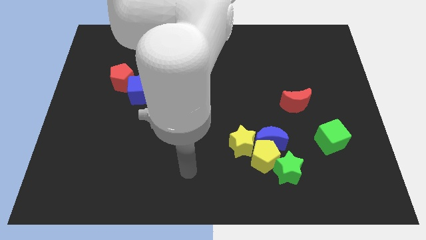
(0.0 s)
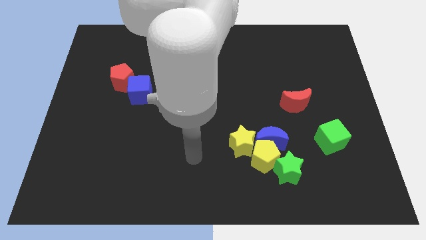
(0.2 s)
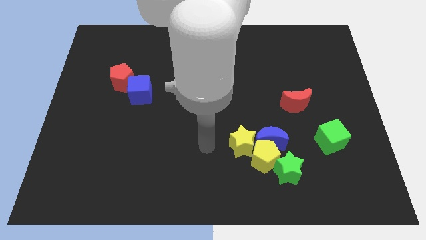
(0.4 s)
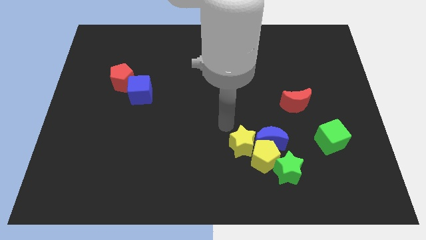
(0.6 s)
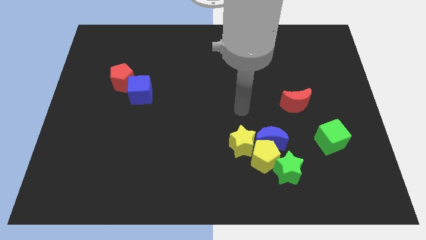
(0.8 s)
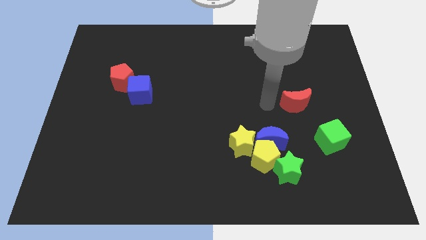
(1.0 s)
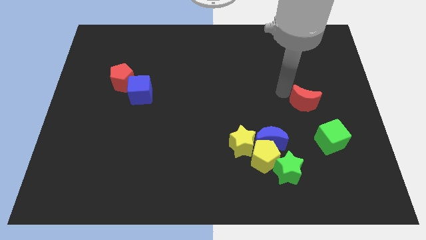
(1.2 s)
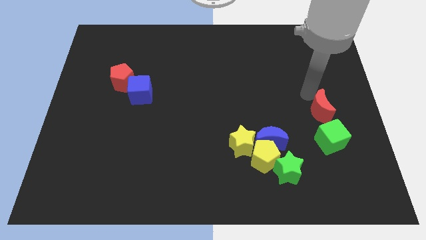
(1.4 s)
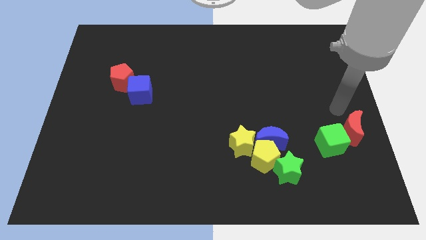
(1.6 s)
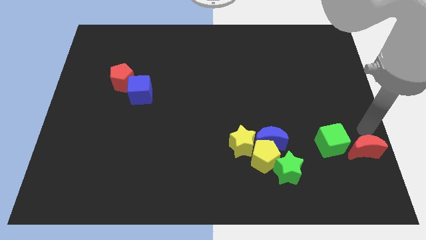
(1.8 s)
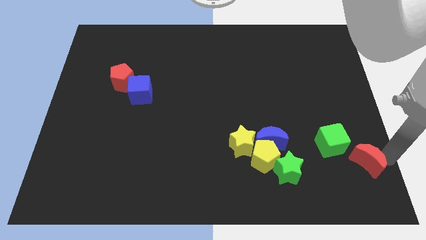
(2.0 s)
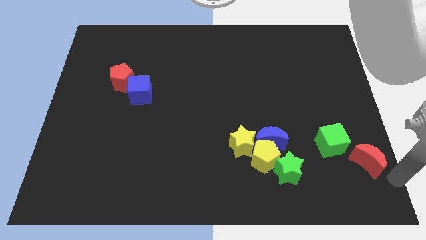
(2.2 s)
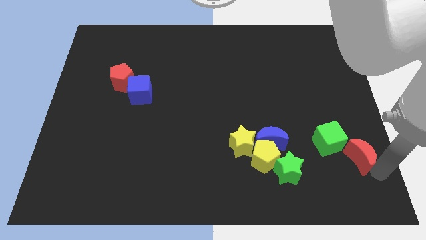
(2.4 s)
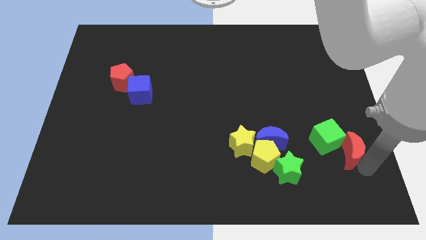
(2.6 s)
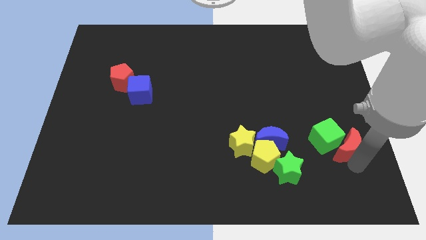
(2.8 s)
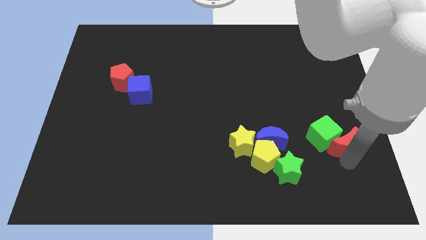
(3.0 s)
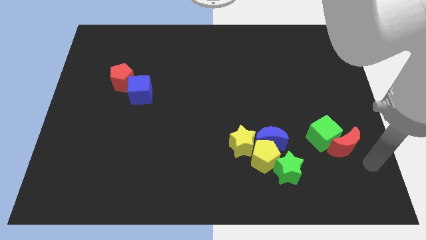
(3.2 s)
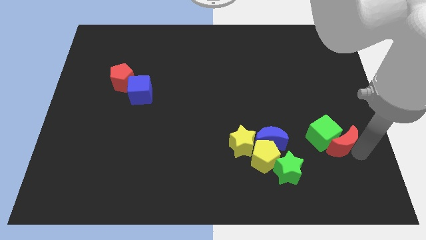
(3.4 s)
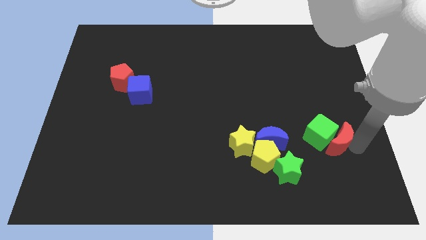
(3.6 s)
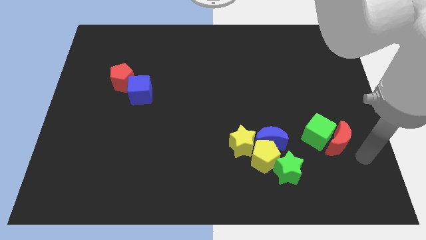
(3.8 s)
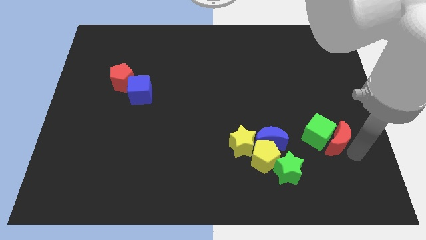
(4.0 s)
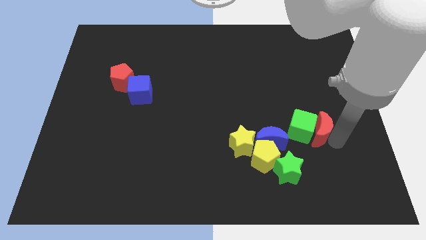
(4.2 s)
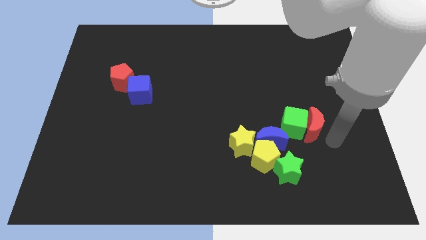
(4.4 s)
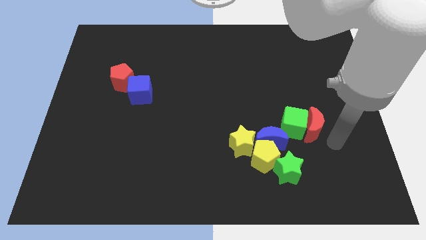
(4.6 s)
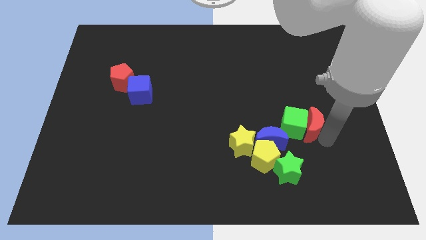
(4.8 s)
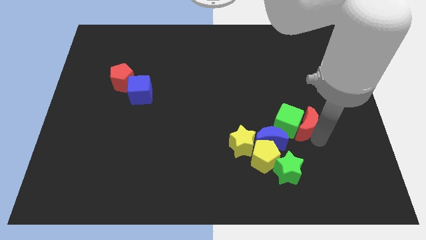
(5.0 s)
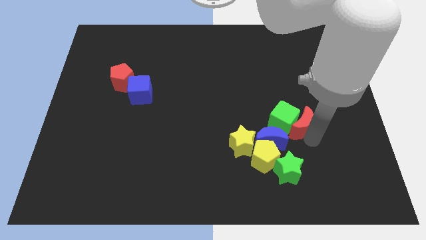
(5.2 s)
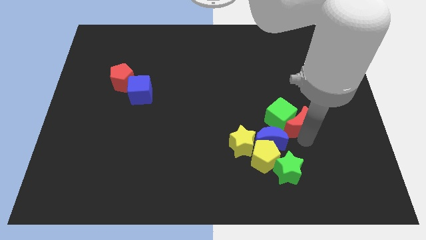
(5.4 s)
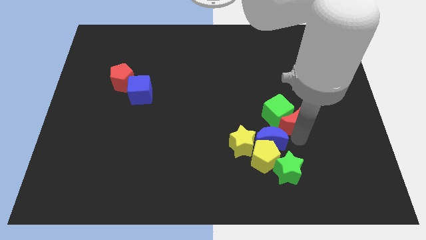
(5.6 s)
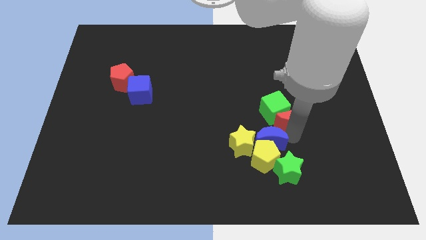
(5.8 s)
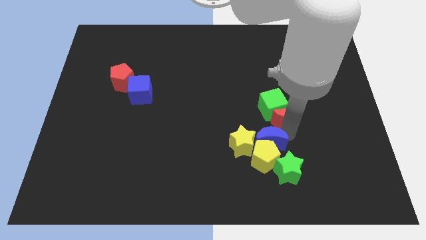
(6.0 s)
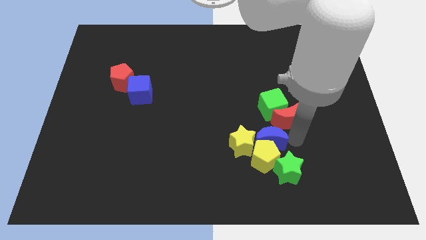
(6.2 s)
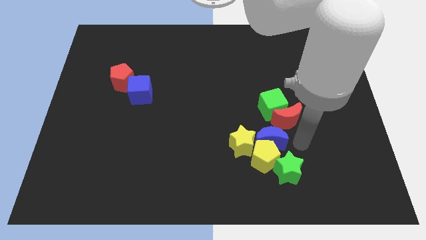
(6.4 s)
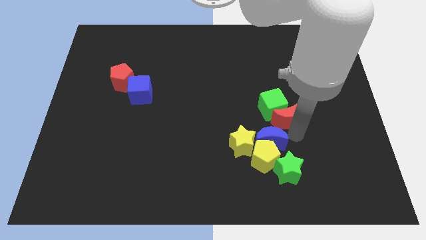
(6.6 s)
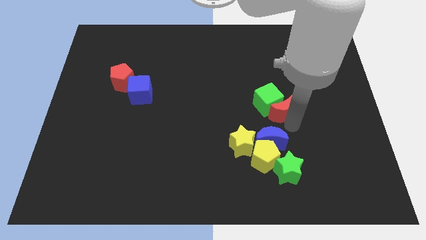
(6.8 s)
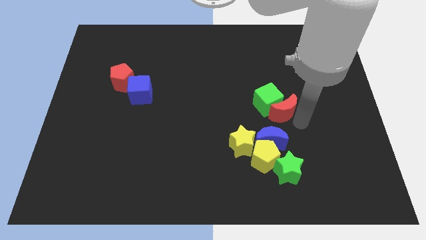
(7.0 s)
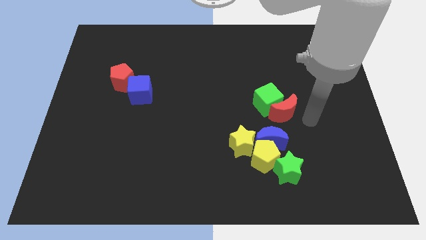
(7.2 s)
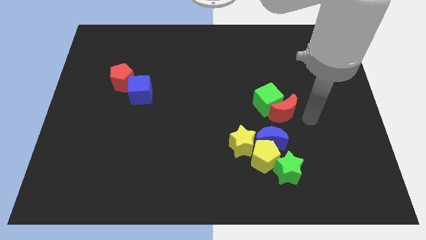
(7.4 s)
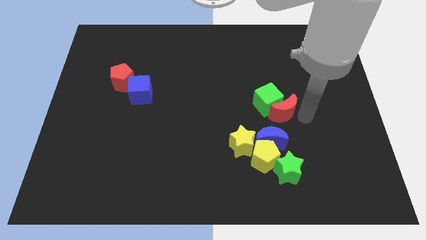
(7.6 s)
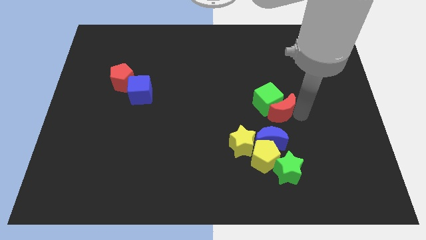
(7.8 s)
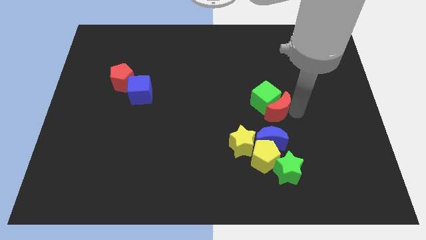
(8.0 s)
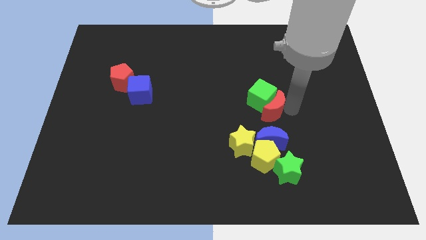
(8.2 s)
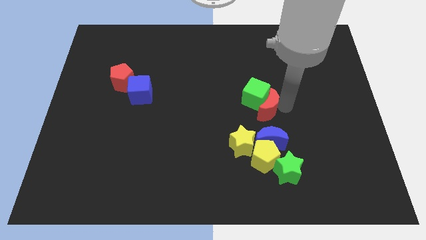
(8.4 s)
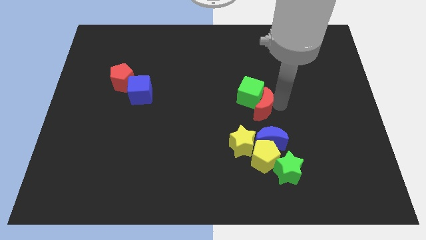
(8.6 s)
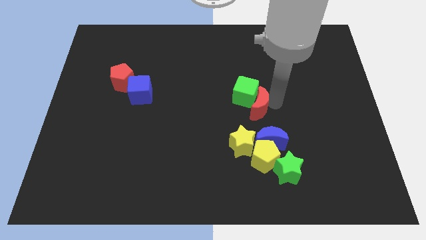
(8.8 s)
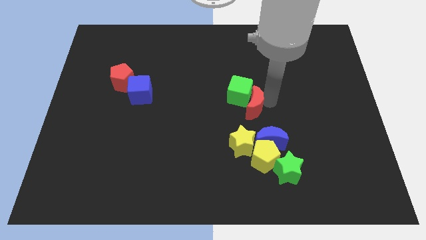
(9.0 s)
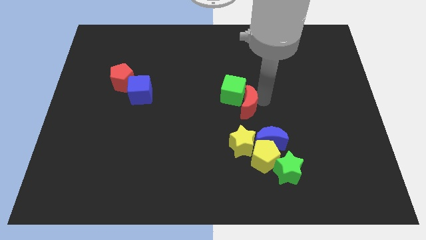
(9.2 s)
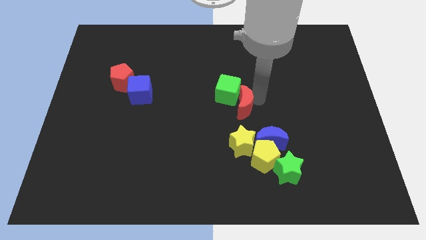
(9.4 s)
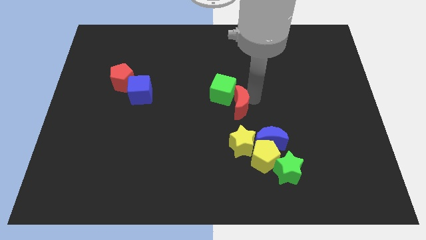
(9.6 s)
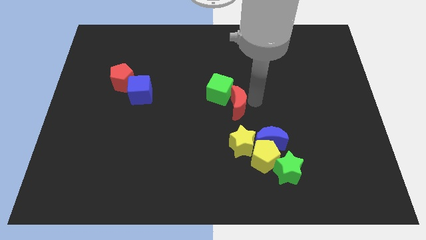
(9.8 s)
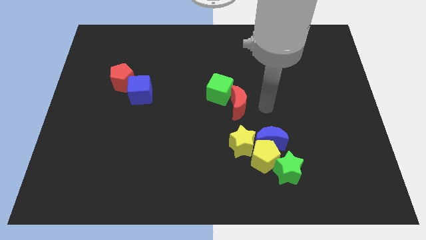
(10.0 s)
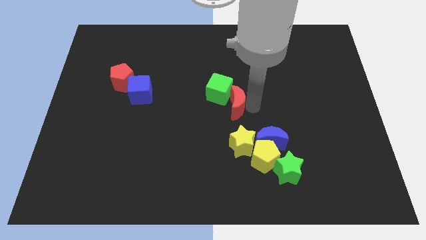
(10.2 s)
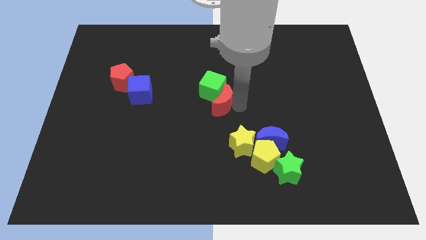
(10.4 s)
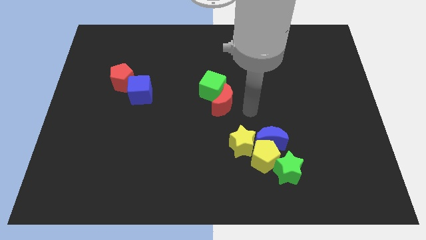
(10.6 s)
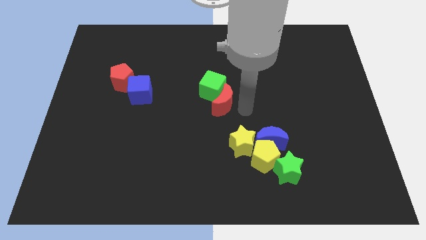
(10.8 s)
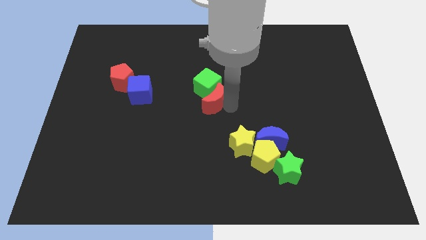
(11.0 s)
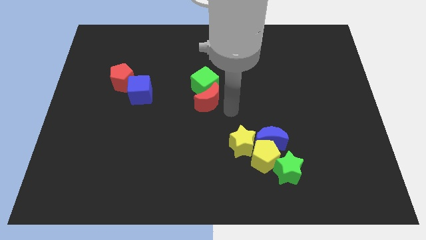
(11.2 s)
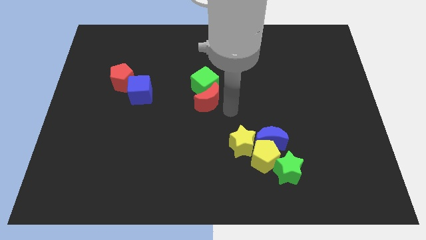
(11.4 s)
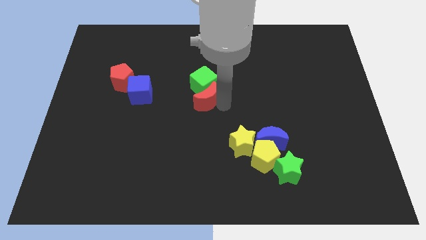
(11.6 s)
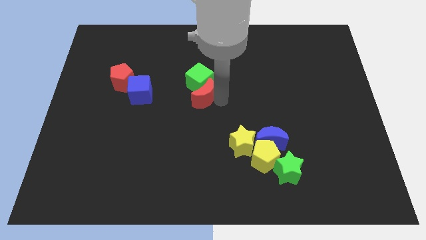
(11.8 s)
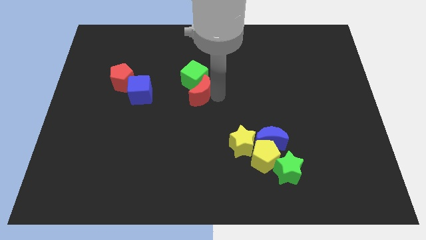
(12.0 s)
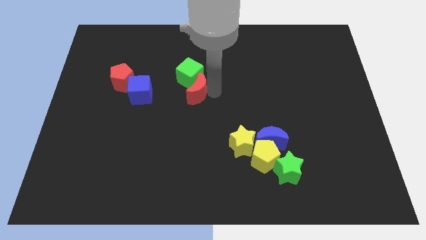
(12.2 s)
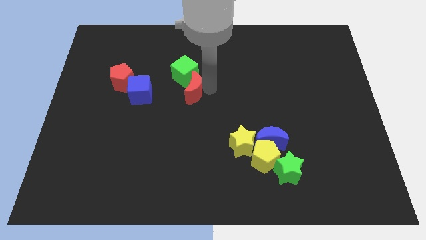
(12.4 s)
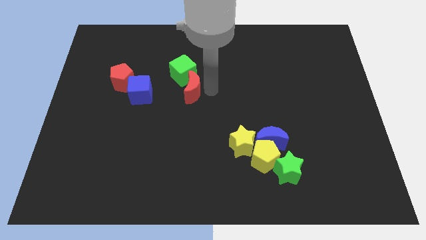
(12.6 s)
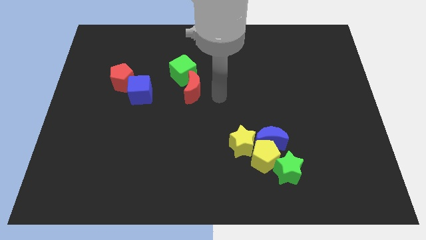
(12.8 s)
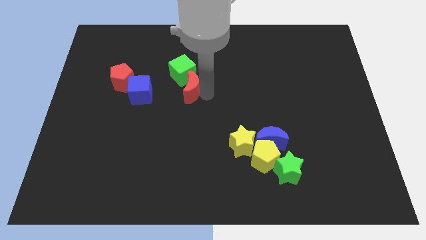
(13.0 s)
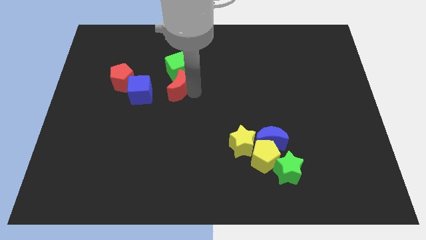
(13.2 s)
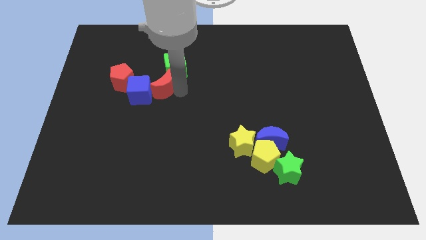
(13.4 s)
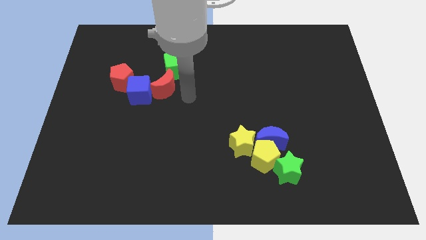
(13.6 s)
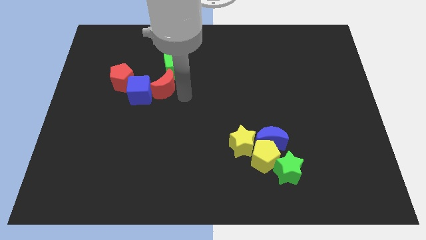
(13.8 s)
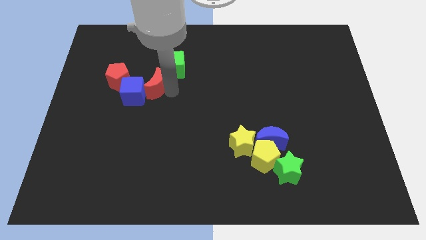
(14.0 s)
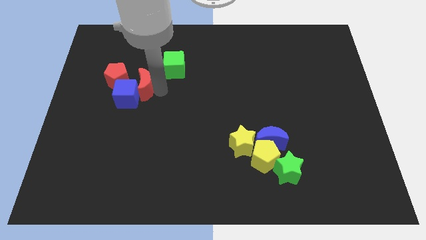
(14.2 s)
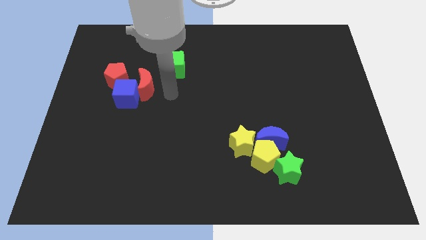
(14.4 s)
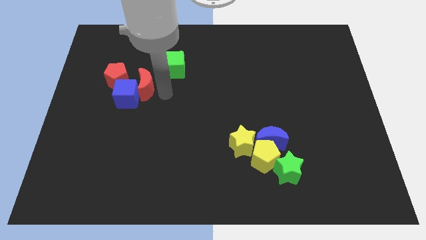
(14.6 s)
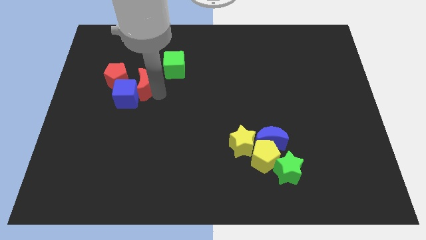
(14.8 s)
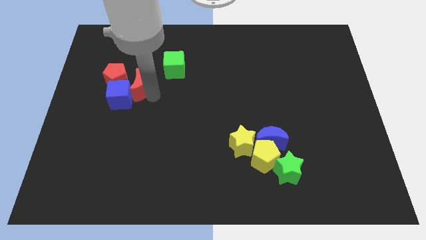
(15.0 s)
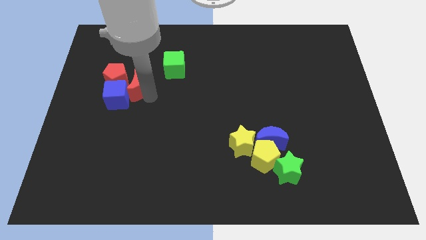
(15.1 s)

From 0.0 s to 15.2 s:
put the red moon close to the red pentagon
